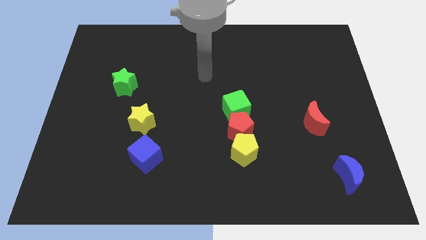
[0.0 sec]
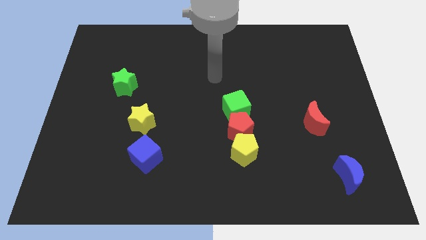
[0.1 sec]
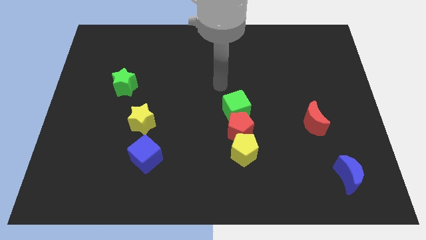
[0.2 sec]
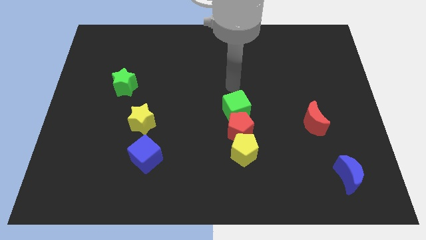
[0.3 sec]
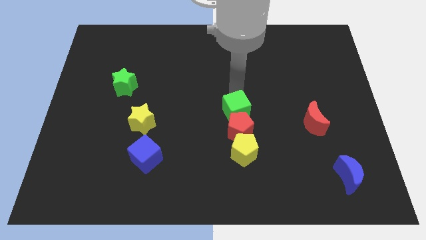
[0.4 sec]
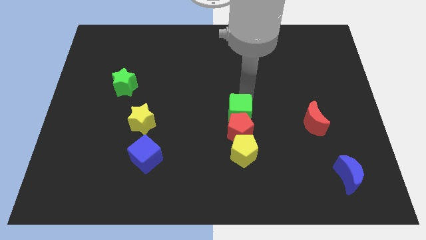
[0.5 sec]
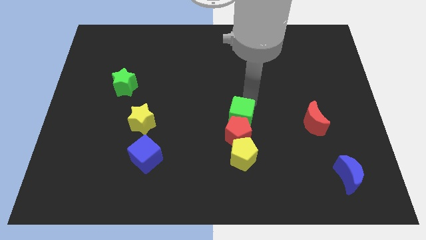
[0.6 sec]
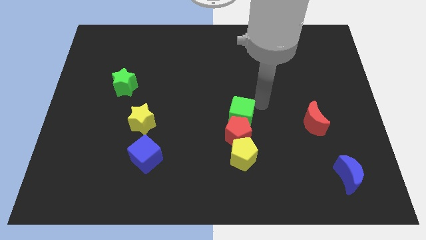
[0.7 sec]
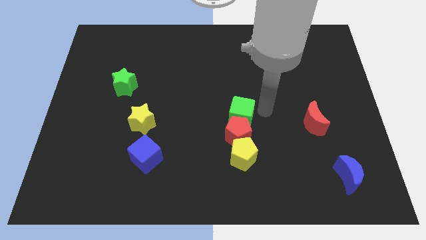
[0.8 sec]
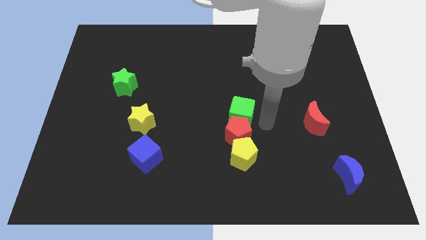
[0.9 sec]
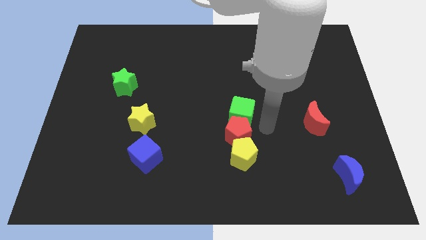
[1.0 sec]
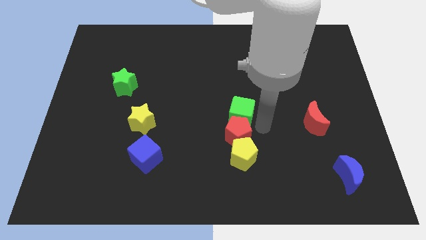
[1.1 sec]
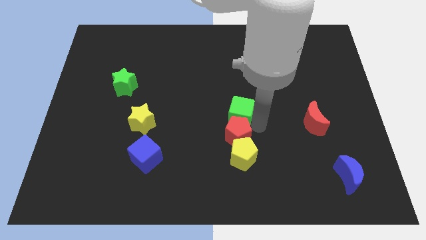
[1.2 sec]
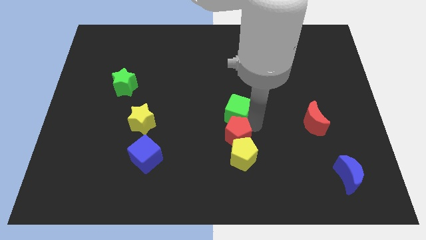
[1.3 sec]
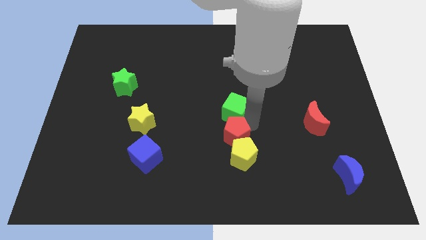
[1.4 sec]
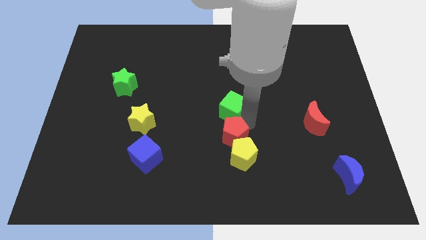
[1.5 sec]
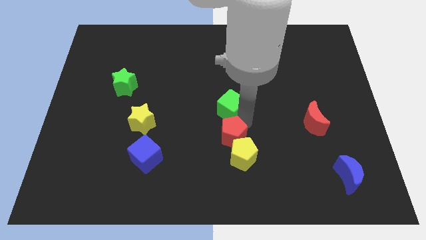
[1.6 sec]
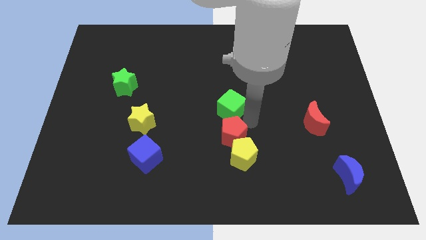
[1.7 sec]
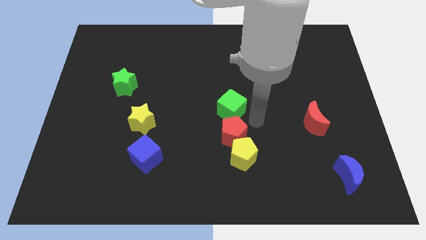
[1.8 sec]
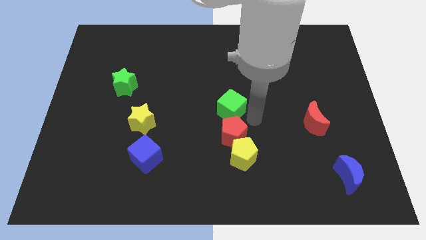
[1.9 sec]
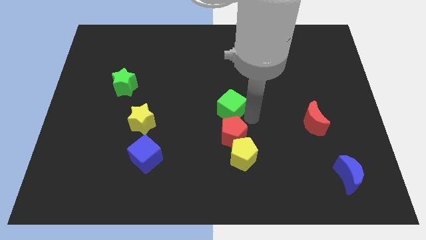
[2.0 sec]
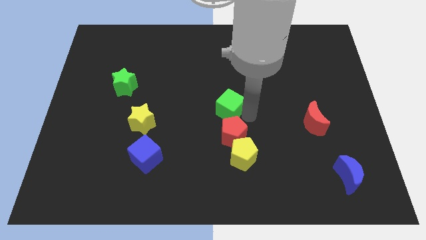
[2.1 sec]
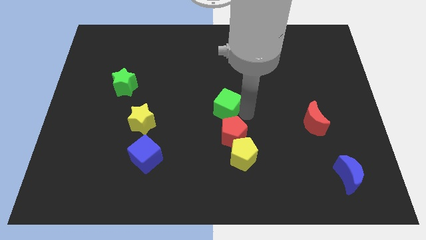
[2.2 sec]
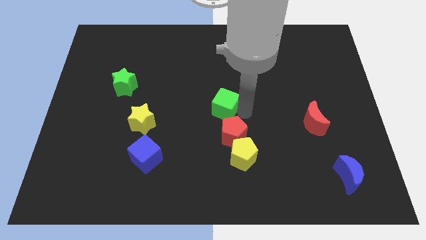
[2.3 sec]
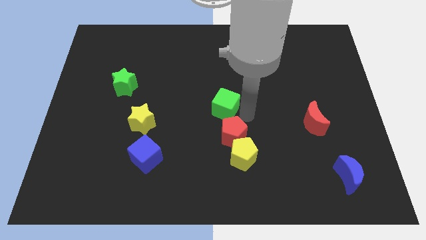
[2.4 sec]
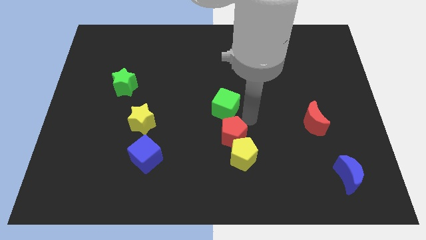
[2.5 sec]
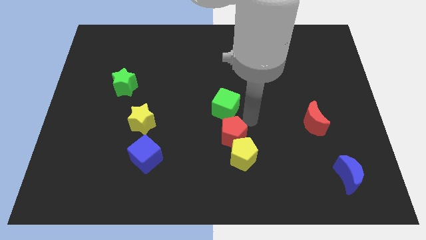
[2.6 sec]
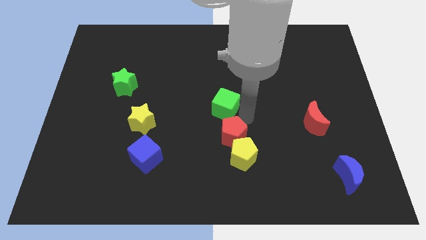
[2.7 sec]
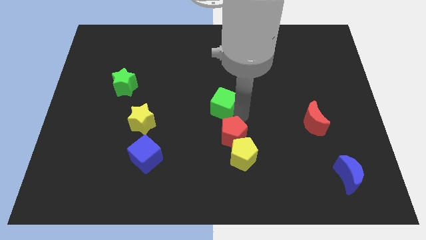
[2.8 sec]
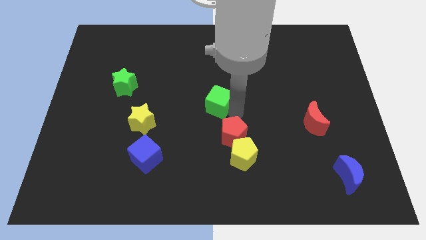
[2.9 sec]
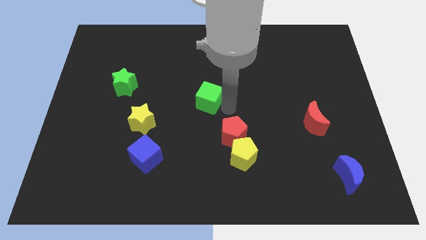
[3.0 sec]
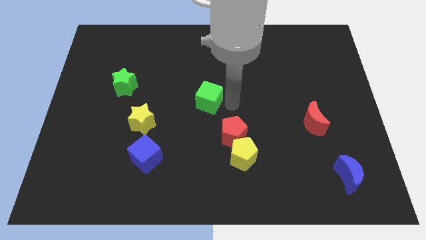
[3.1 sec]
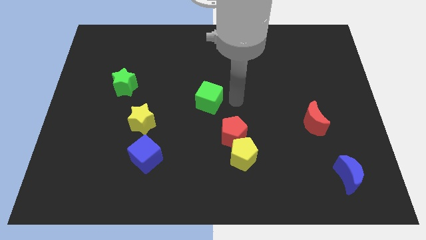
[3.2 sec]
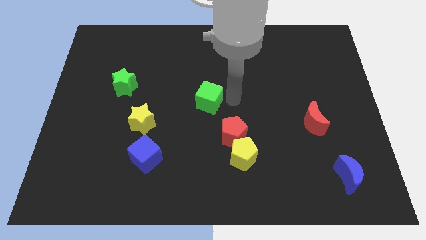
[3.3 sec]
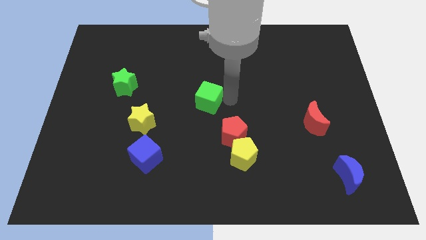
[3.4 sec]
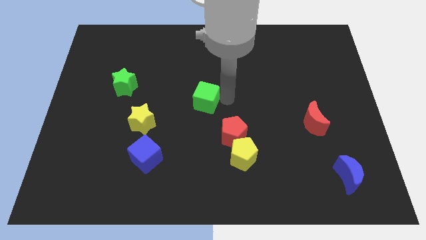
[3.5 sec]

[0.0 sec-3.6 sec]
push the green cube to the left a bit

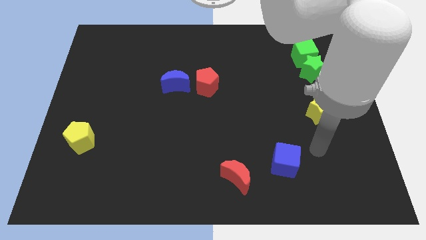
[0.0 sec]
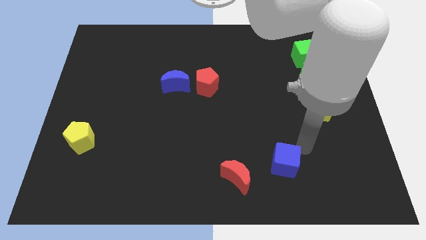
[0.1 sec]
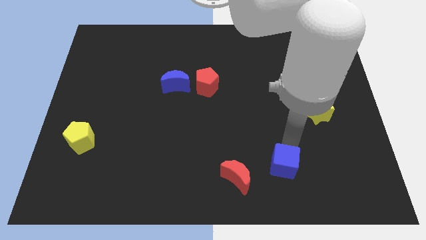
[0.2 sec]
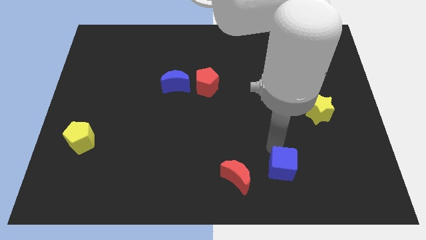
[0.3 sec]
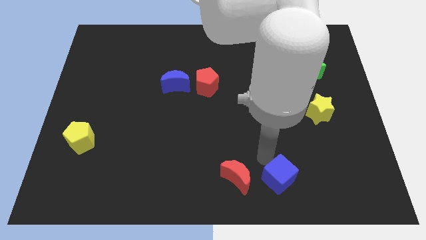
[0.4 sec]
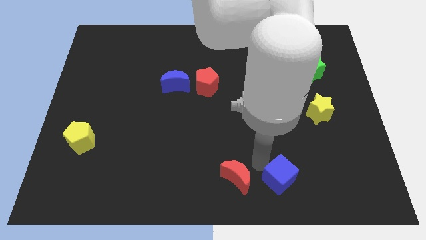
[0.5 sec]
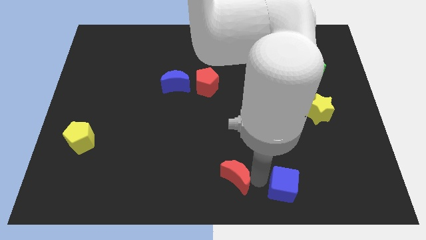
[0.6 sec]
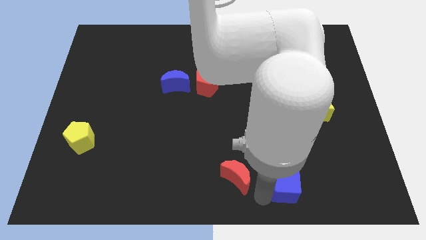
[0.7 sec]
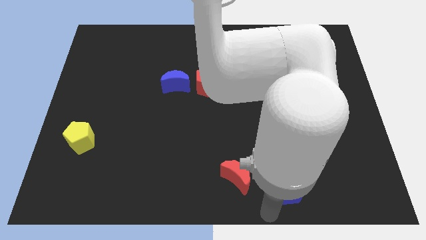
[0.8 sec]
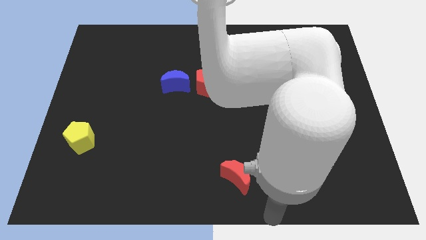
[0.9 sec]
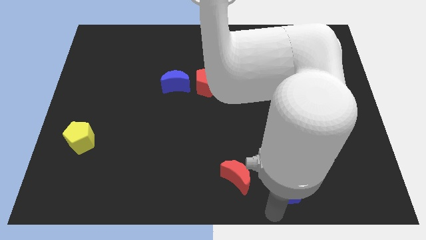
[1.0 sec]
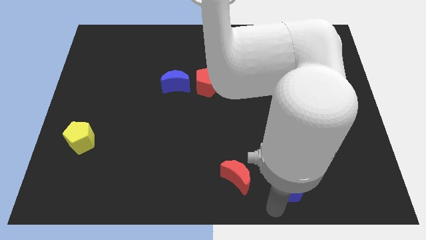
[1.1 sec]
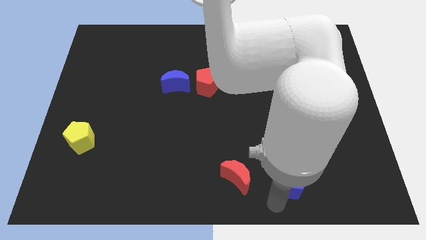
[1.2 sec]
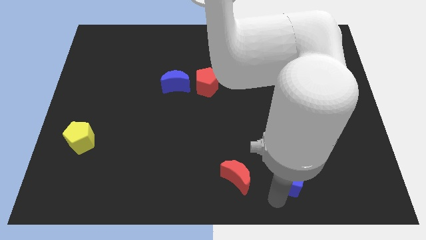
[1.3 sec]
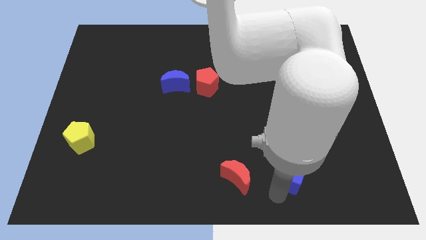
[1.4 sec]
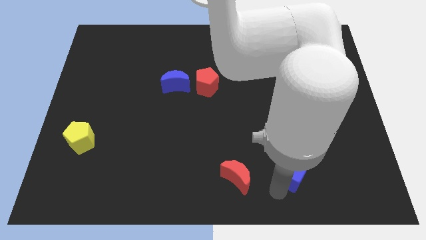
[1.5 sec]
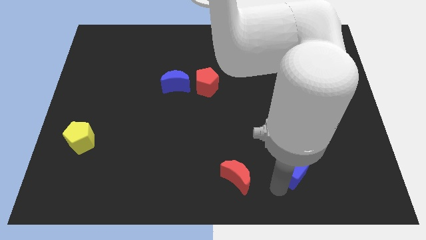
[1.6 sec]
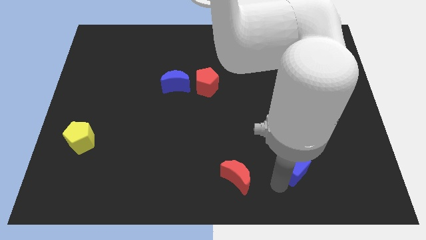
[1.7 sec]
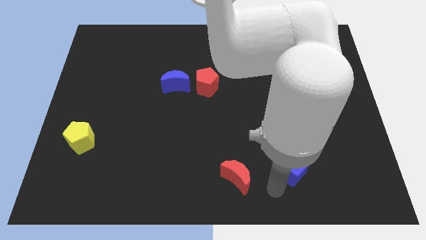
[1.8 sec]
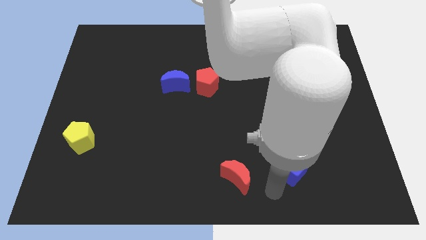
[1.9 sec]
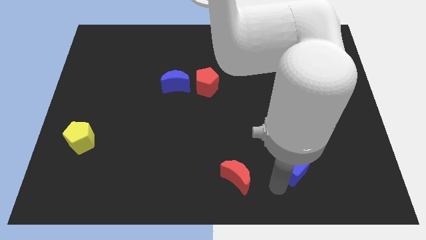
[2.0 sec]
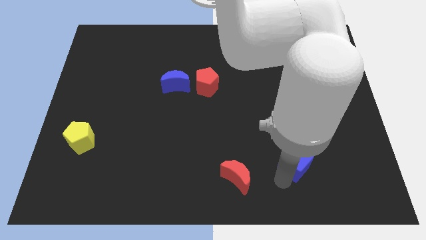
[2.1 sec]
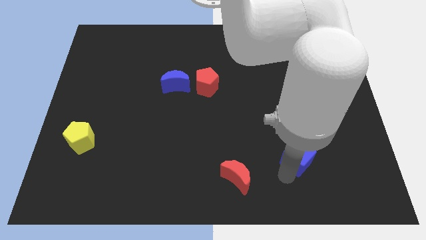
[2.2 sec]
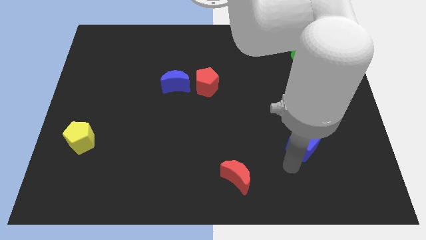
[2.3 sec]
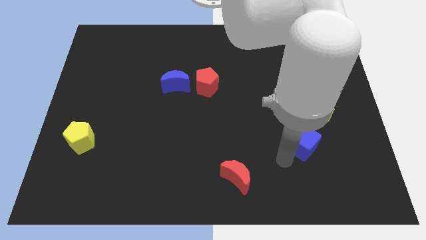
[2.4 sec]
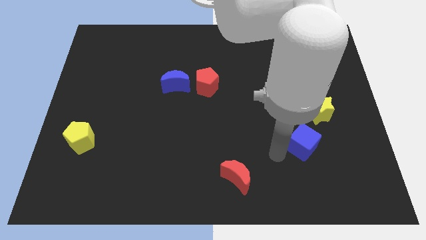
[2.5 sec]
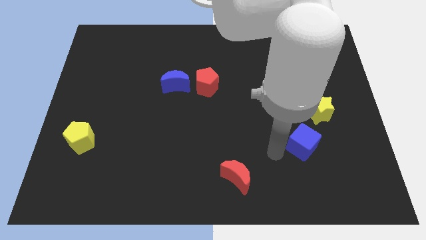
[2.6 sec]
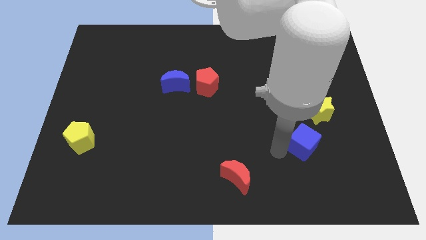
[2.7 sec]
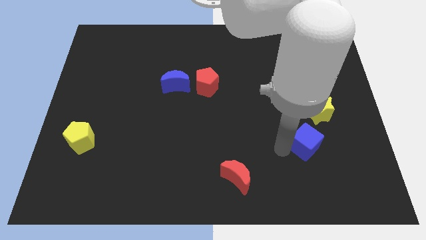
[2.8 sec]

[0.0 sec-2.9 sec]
slightly slide the blue cube upwards and to the right diagonally

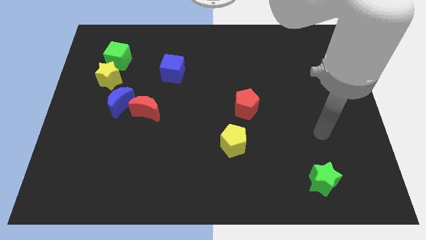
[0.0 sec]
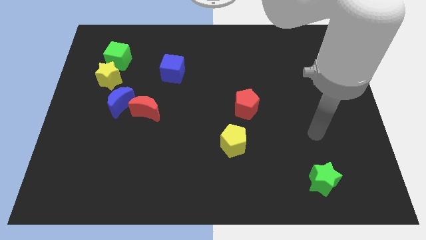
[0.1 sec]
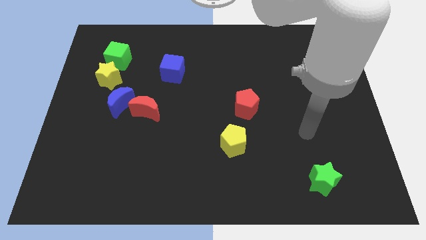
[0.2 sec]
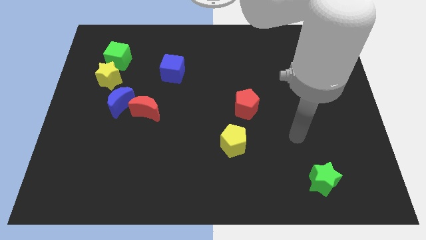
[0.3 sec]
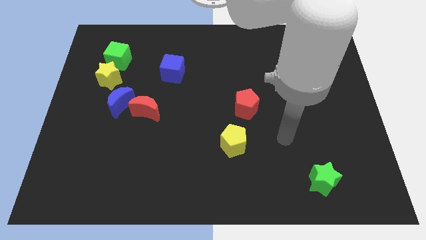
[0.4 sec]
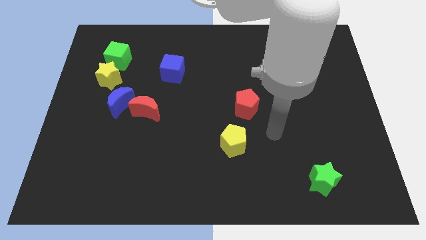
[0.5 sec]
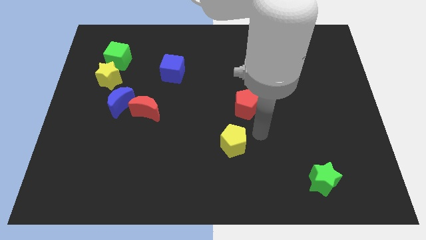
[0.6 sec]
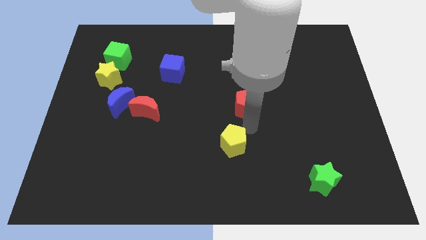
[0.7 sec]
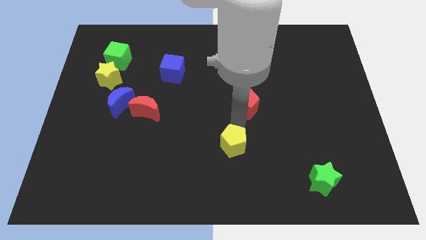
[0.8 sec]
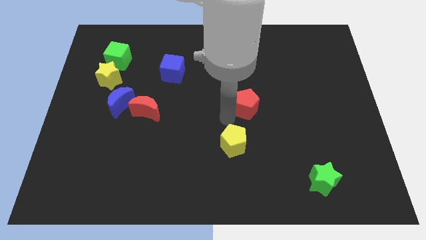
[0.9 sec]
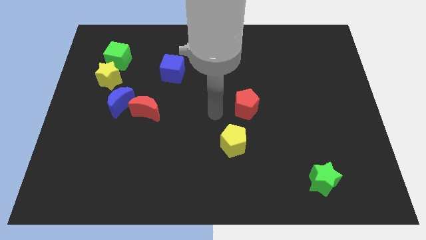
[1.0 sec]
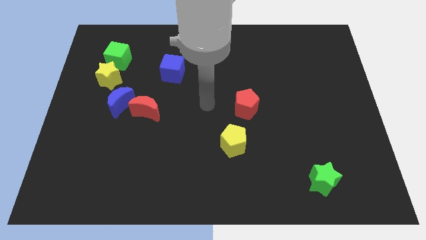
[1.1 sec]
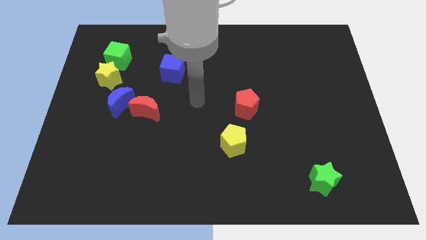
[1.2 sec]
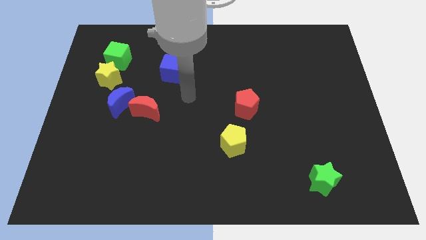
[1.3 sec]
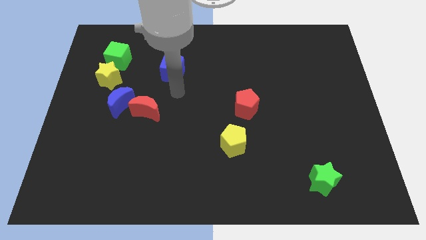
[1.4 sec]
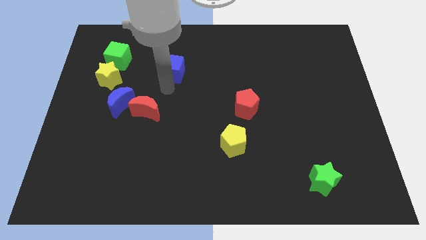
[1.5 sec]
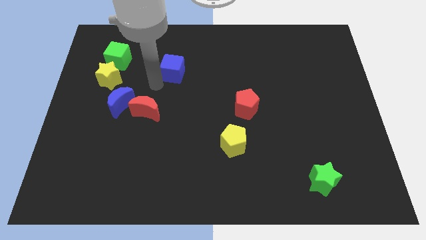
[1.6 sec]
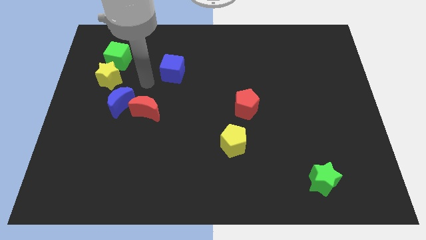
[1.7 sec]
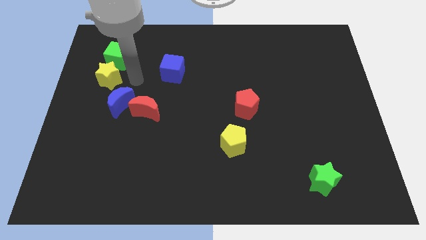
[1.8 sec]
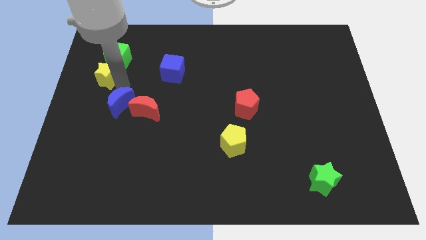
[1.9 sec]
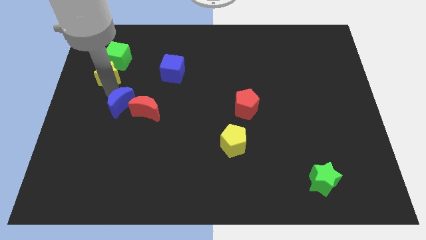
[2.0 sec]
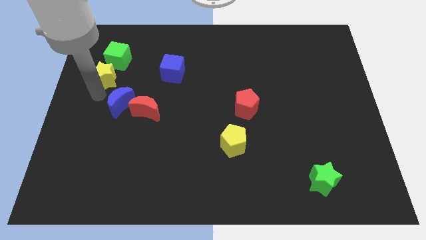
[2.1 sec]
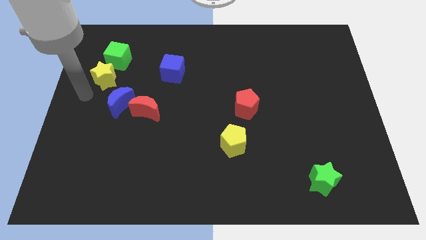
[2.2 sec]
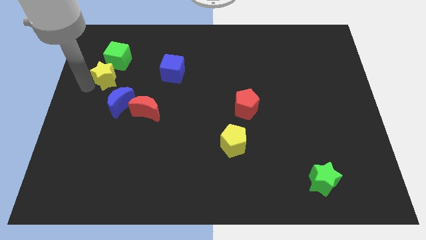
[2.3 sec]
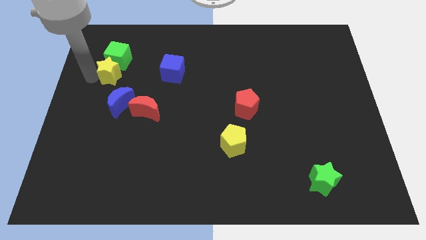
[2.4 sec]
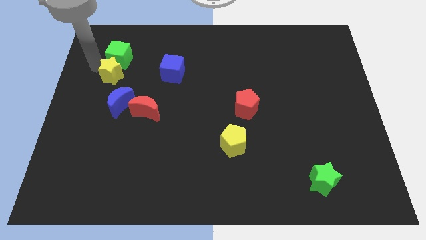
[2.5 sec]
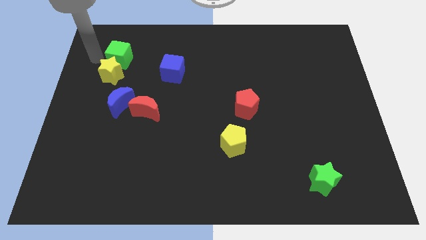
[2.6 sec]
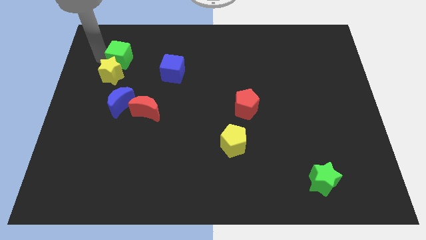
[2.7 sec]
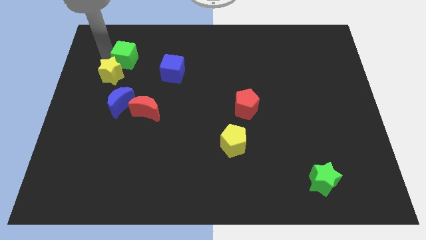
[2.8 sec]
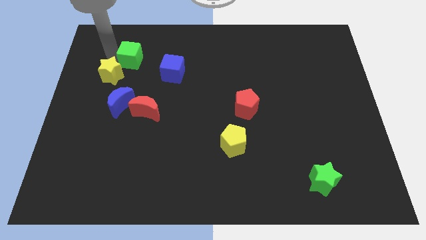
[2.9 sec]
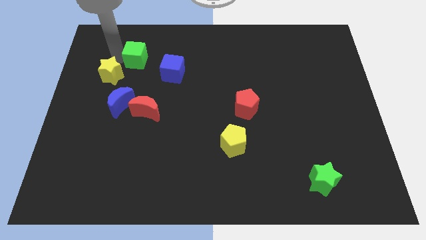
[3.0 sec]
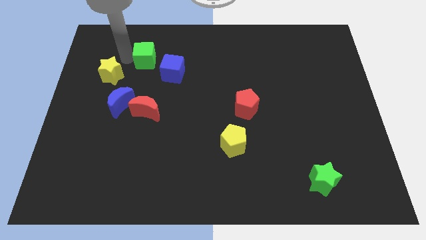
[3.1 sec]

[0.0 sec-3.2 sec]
slightly move the green cube to the right
